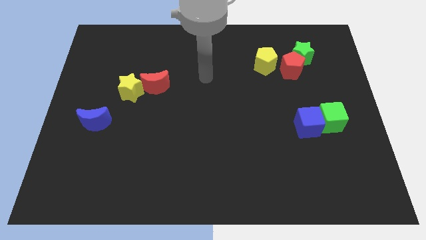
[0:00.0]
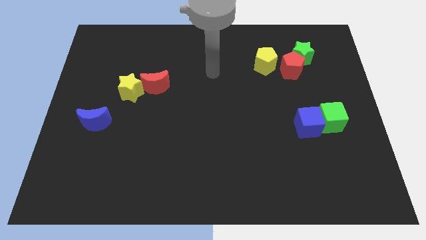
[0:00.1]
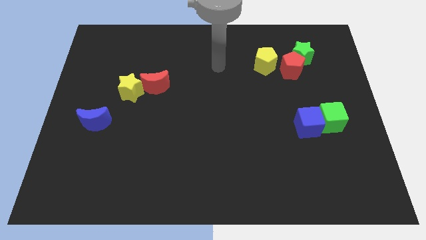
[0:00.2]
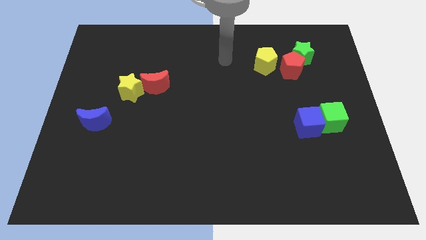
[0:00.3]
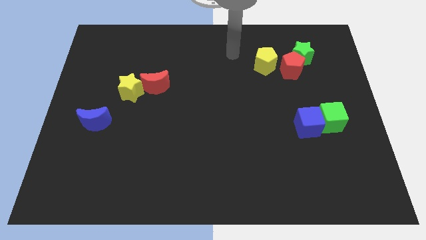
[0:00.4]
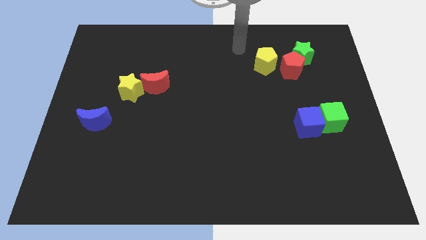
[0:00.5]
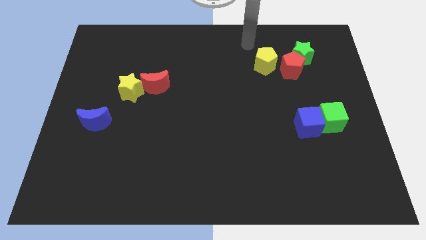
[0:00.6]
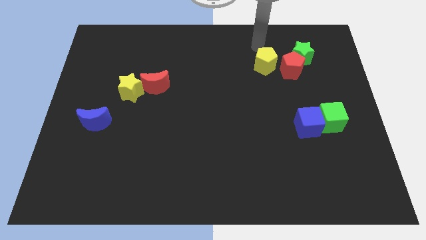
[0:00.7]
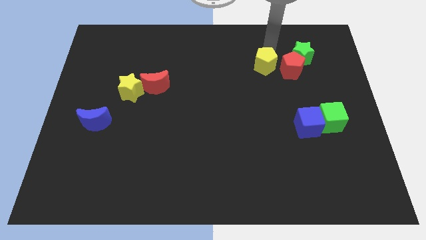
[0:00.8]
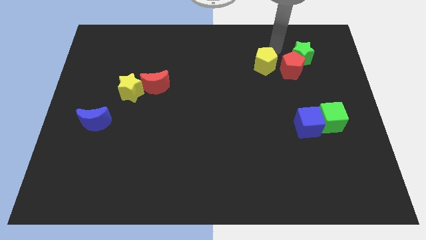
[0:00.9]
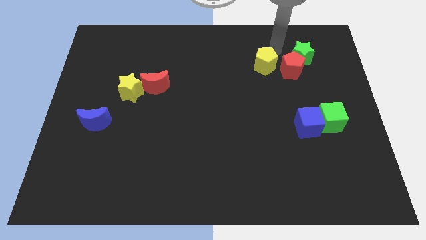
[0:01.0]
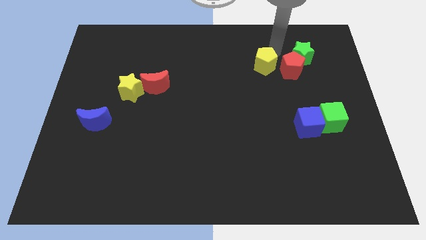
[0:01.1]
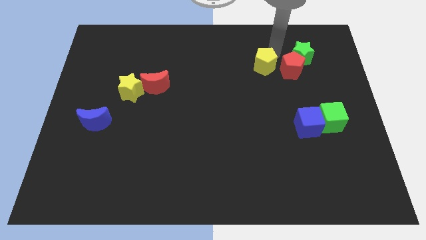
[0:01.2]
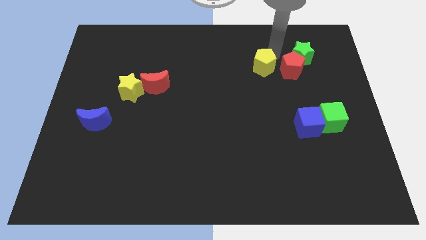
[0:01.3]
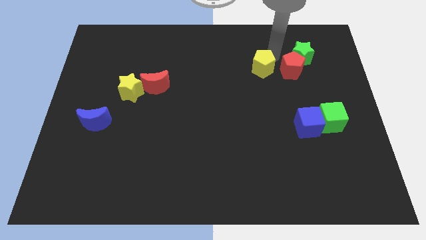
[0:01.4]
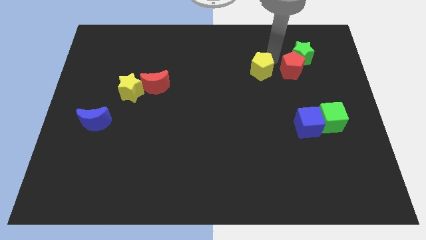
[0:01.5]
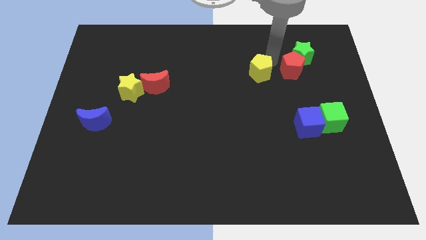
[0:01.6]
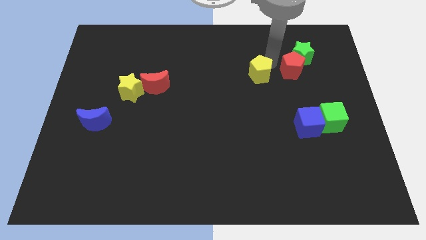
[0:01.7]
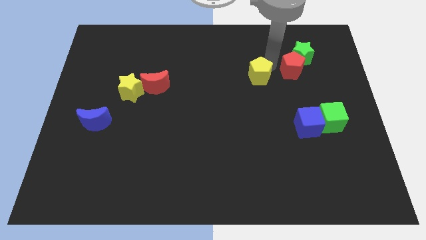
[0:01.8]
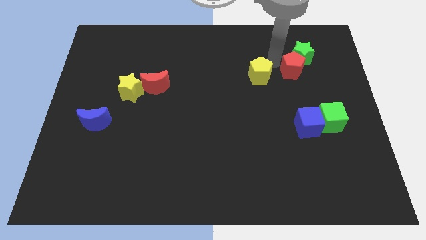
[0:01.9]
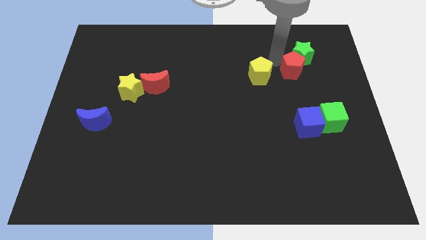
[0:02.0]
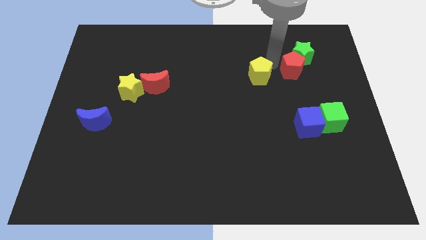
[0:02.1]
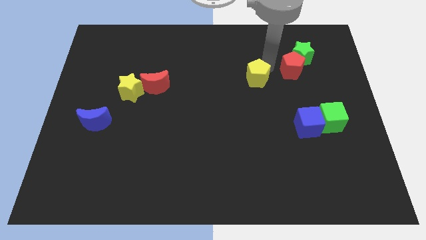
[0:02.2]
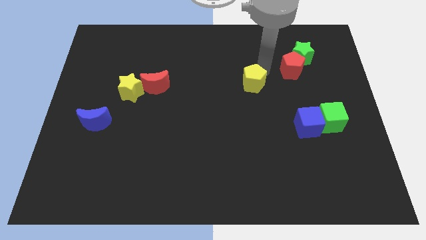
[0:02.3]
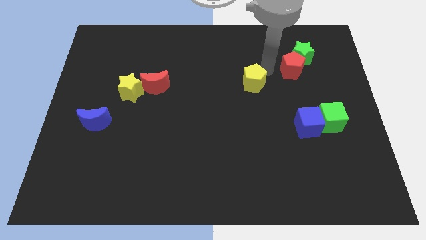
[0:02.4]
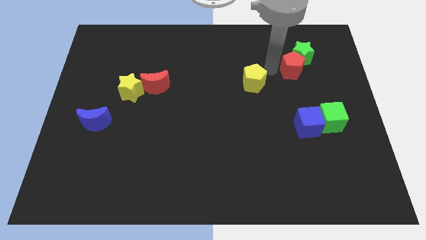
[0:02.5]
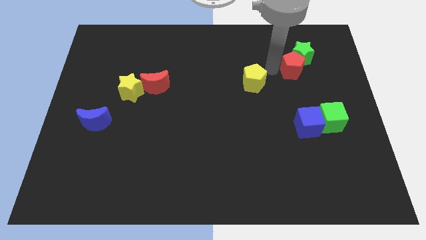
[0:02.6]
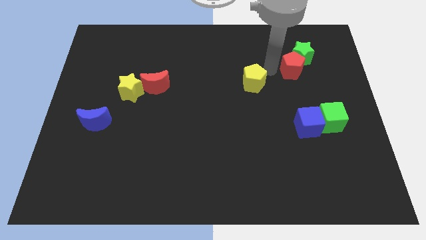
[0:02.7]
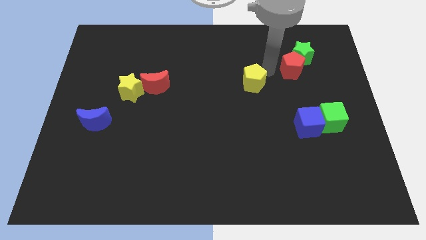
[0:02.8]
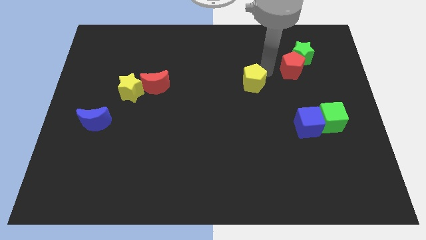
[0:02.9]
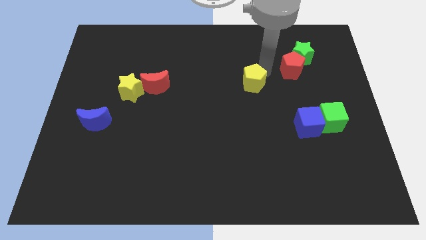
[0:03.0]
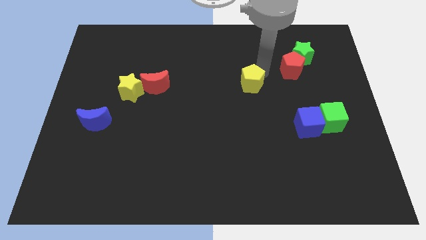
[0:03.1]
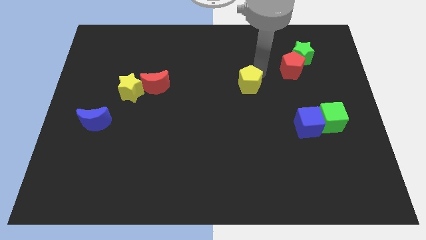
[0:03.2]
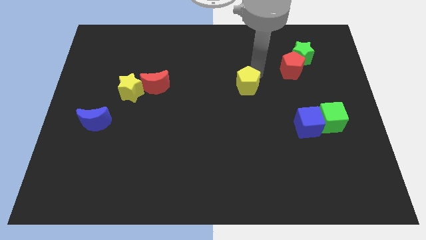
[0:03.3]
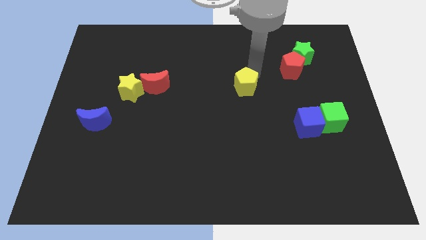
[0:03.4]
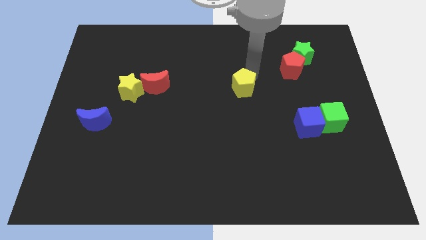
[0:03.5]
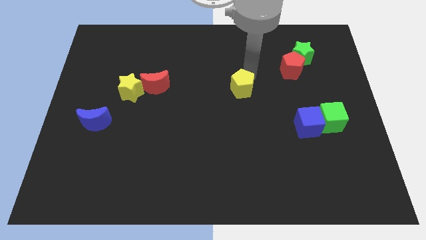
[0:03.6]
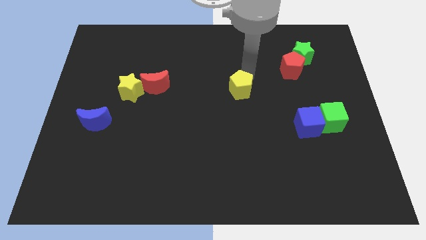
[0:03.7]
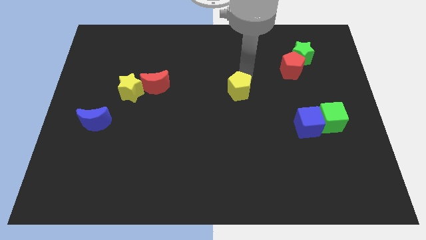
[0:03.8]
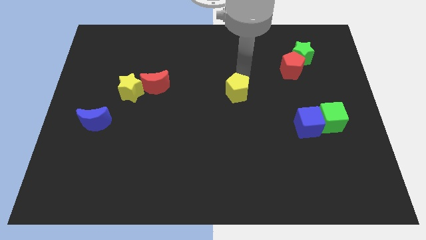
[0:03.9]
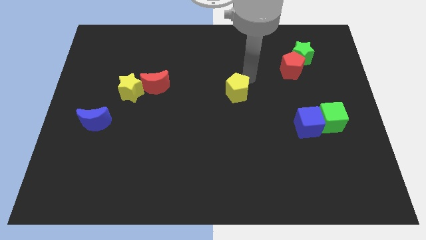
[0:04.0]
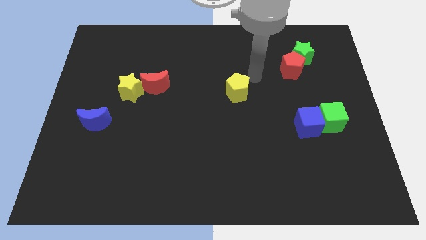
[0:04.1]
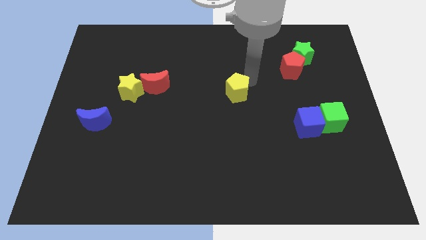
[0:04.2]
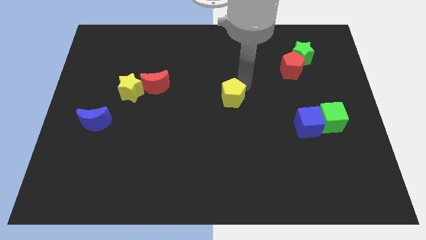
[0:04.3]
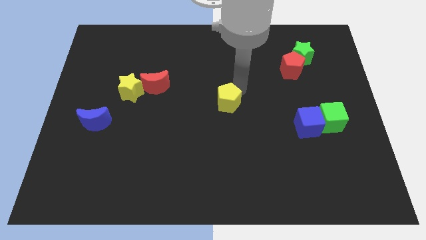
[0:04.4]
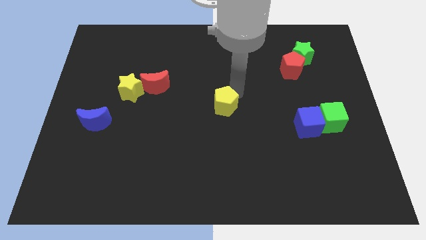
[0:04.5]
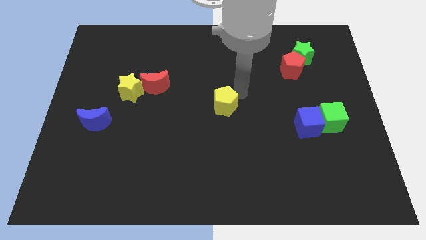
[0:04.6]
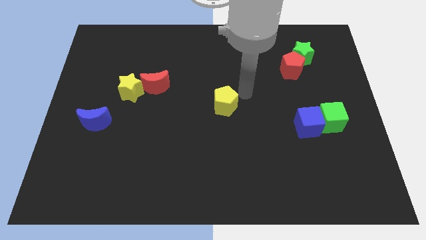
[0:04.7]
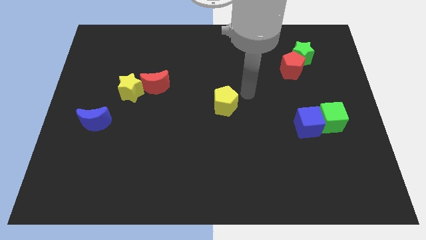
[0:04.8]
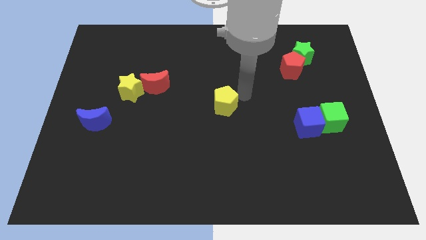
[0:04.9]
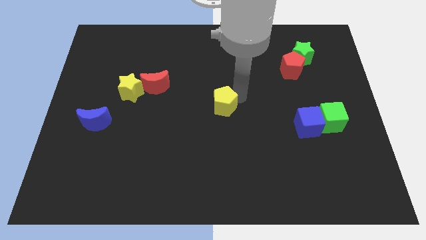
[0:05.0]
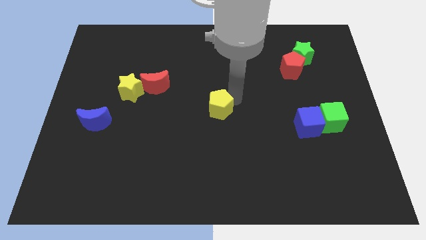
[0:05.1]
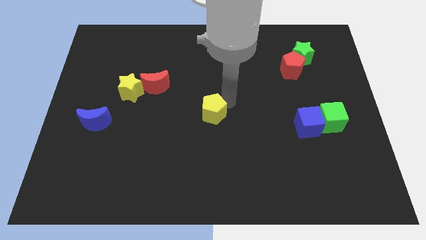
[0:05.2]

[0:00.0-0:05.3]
move the yellow pentagon down and to the left

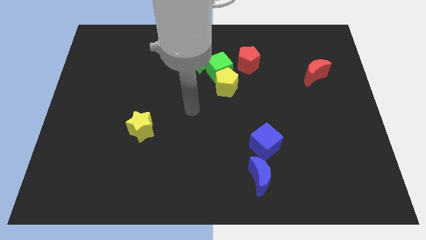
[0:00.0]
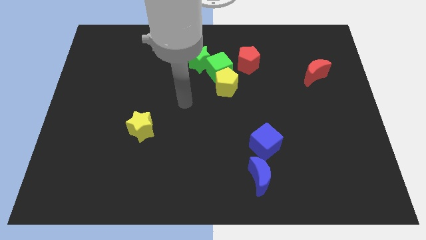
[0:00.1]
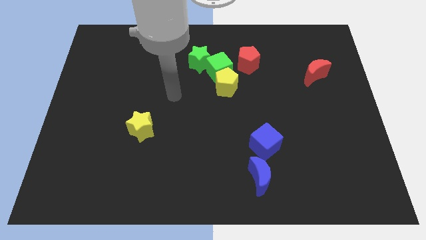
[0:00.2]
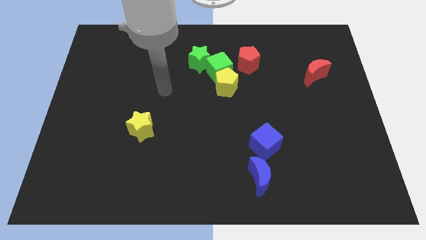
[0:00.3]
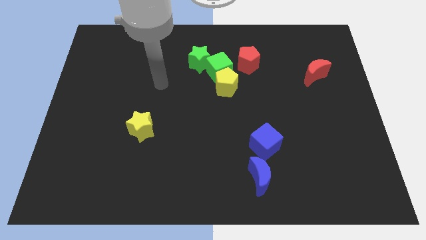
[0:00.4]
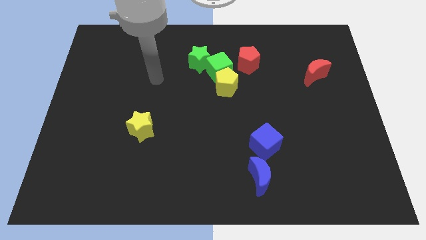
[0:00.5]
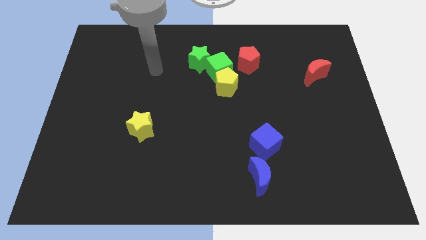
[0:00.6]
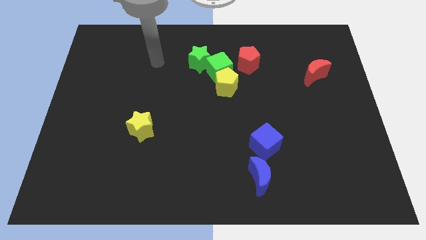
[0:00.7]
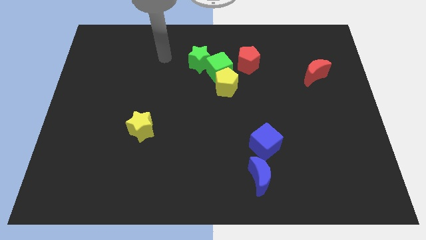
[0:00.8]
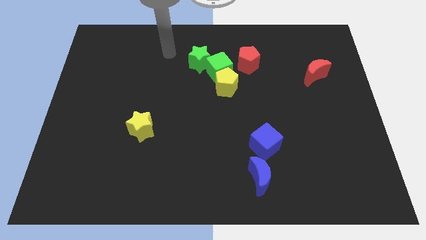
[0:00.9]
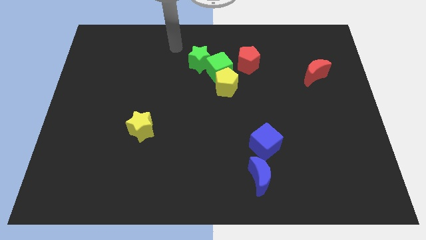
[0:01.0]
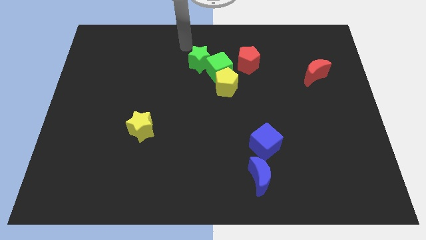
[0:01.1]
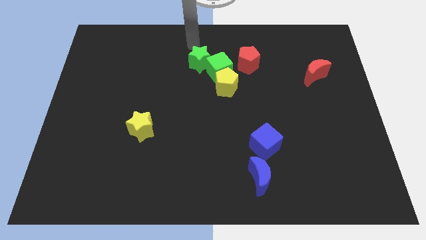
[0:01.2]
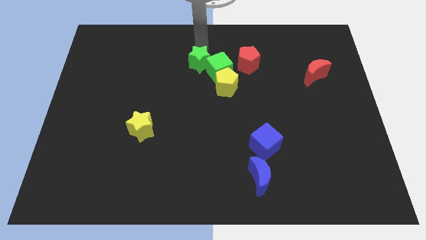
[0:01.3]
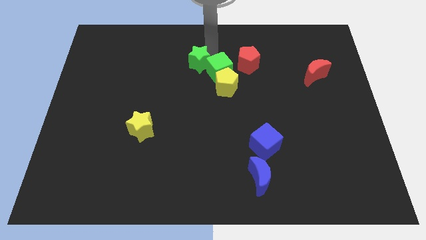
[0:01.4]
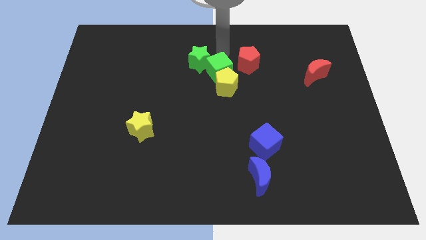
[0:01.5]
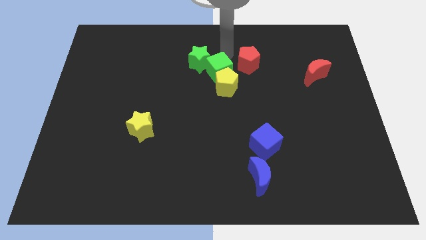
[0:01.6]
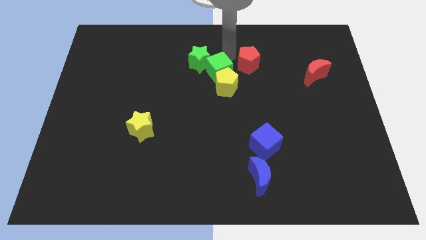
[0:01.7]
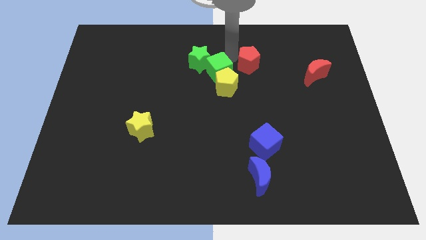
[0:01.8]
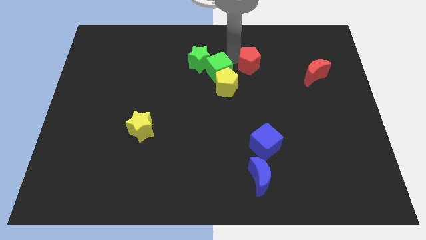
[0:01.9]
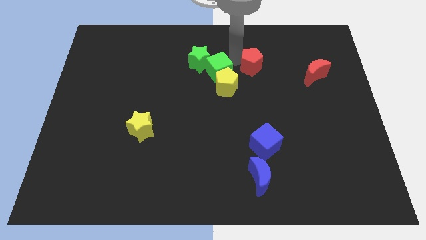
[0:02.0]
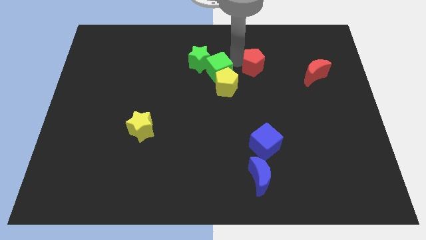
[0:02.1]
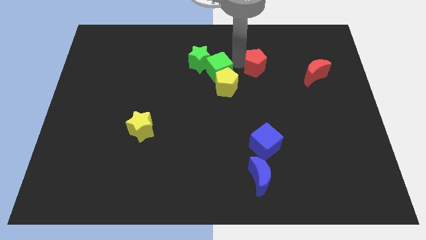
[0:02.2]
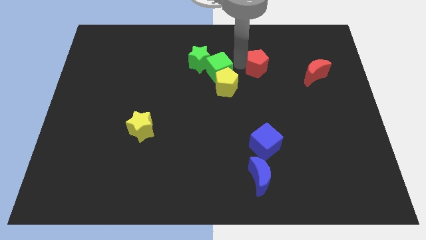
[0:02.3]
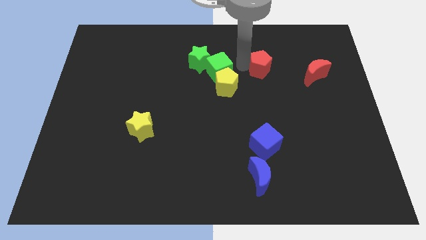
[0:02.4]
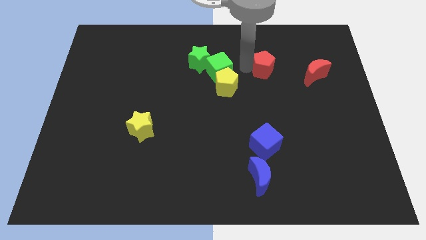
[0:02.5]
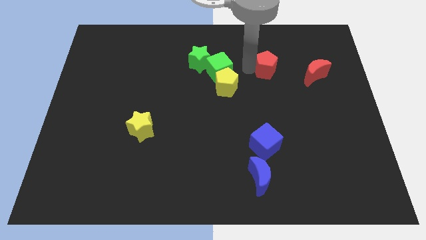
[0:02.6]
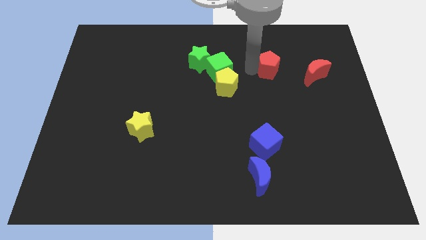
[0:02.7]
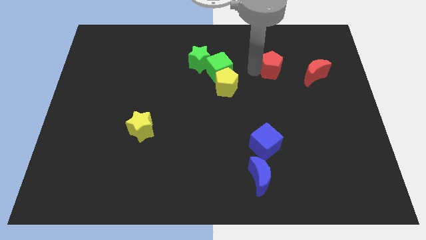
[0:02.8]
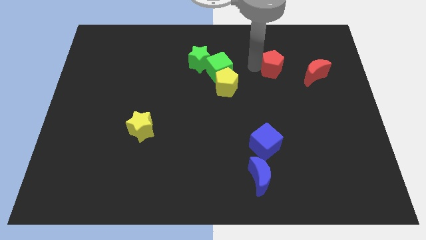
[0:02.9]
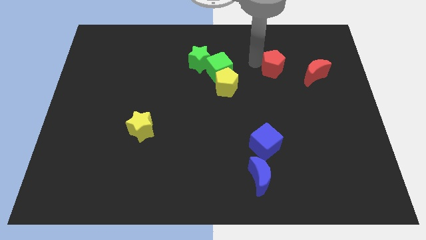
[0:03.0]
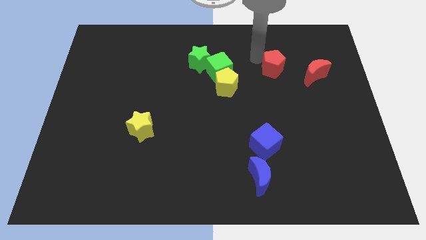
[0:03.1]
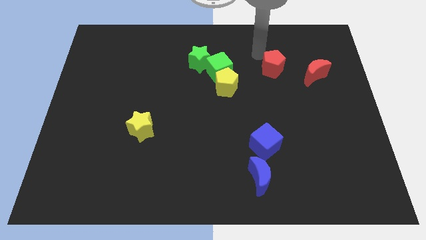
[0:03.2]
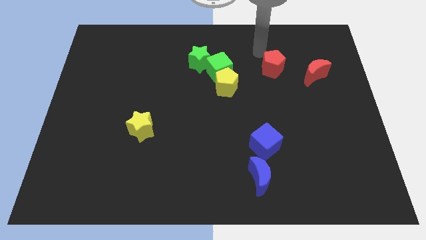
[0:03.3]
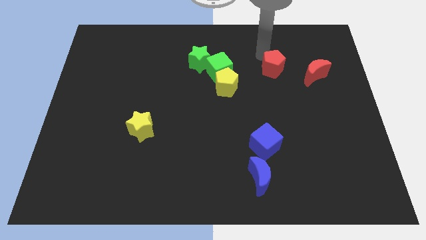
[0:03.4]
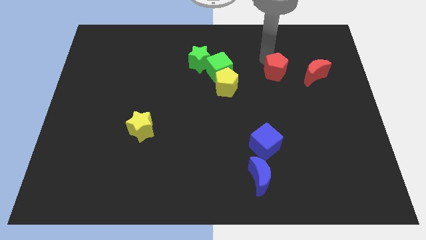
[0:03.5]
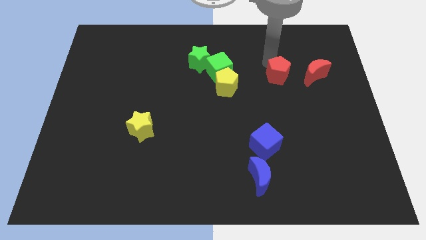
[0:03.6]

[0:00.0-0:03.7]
push the red pentagon a little bit downwards and then right
